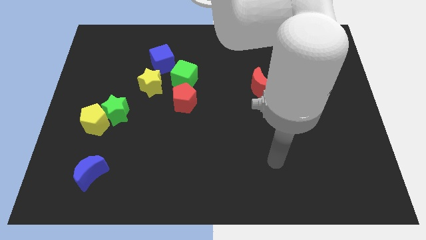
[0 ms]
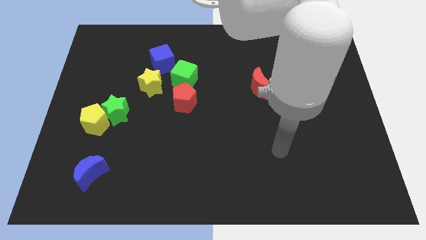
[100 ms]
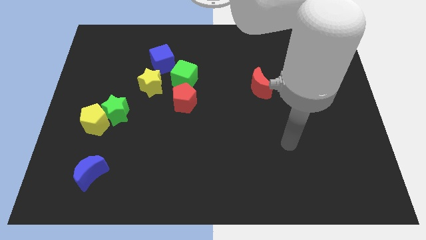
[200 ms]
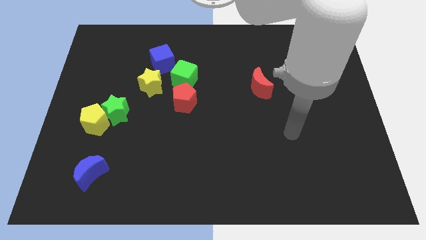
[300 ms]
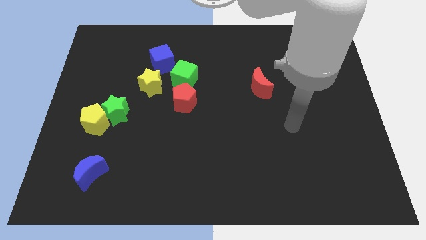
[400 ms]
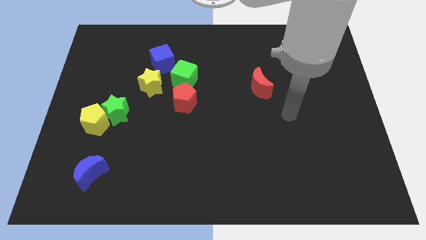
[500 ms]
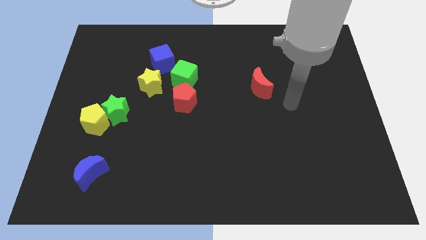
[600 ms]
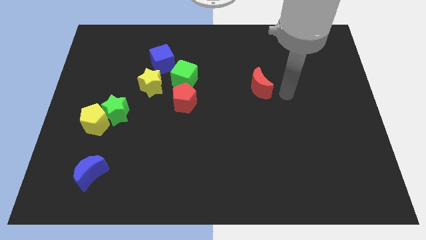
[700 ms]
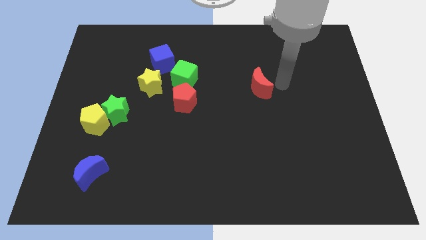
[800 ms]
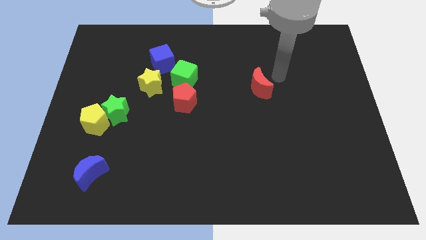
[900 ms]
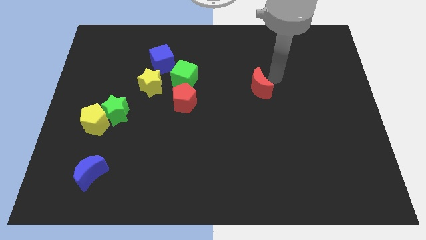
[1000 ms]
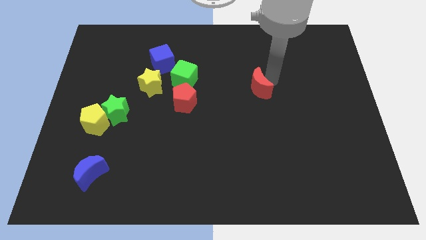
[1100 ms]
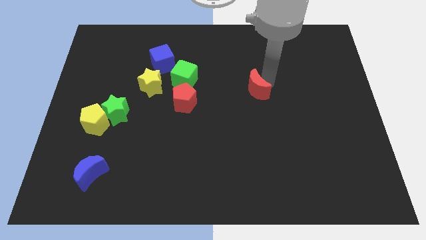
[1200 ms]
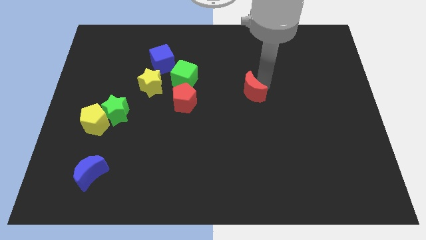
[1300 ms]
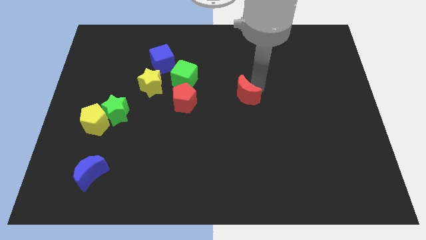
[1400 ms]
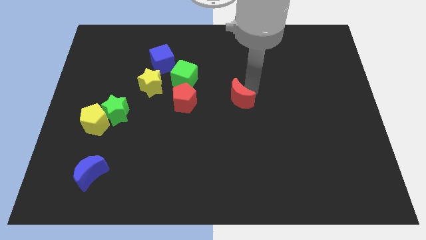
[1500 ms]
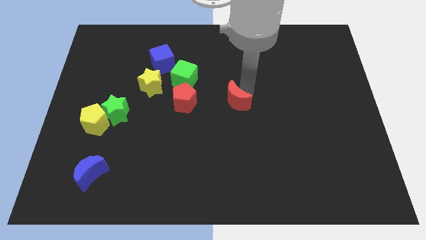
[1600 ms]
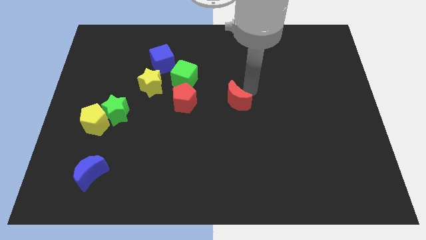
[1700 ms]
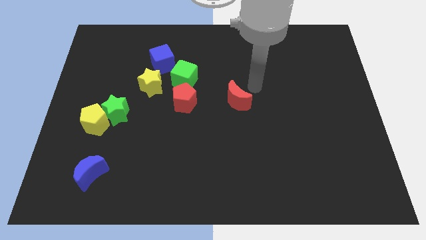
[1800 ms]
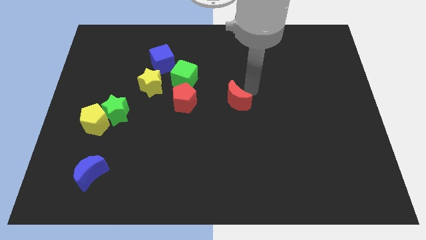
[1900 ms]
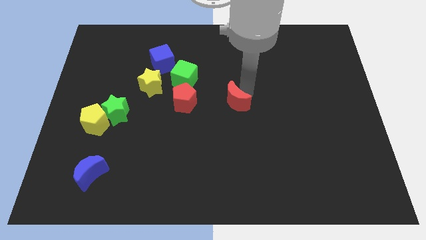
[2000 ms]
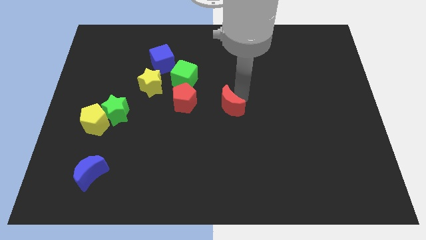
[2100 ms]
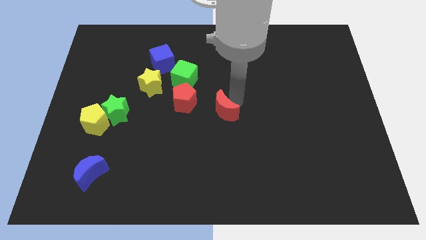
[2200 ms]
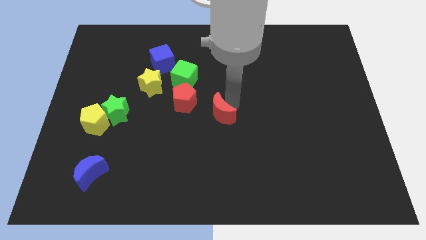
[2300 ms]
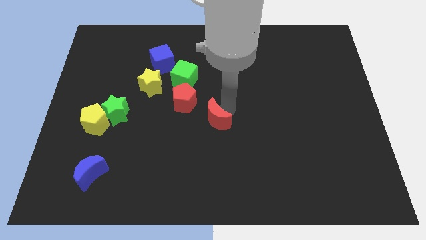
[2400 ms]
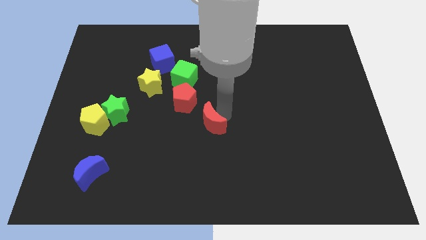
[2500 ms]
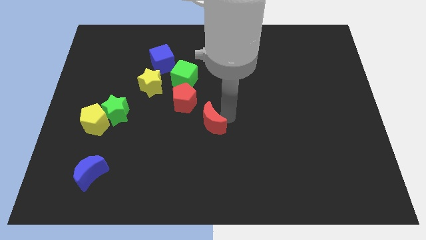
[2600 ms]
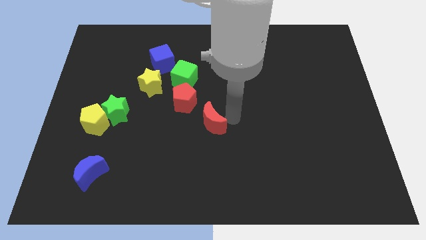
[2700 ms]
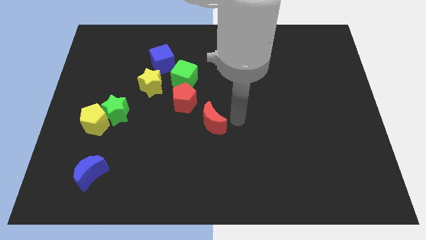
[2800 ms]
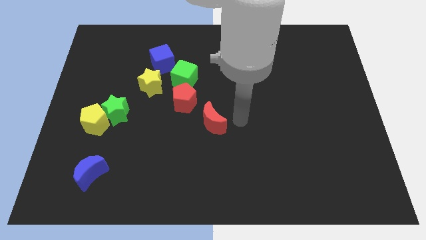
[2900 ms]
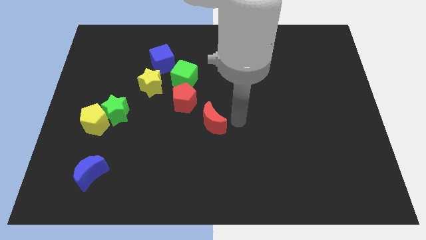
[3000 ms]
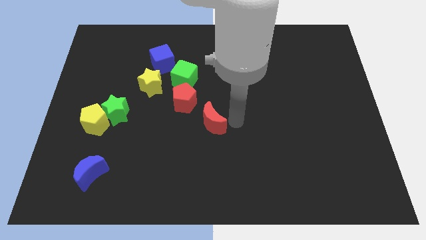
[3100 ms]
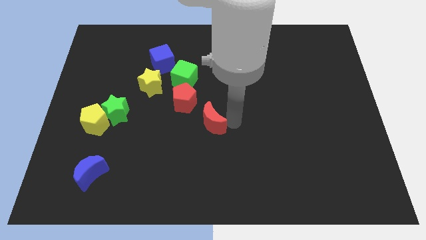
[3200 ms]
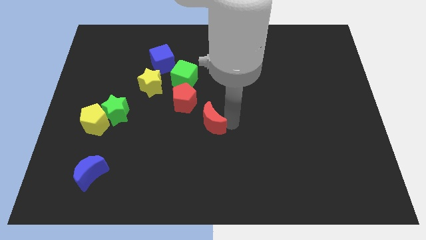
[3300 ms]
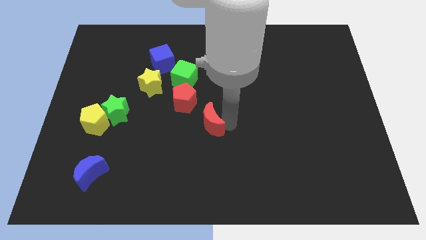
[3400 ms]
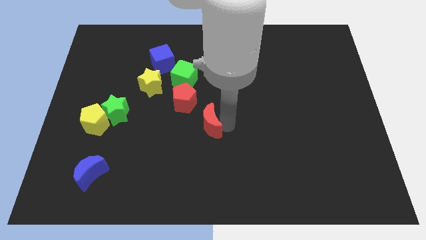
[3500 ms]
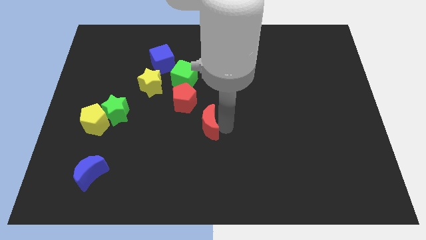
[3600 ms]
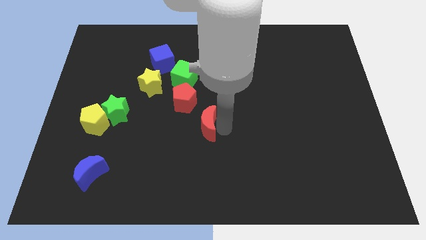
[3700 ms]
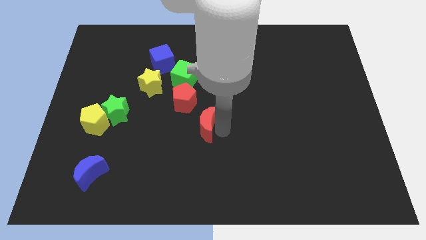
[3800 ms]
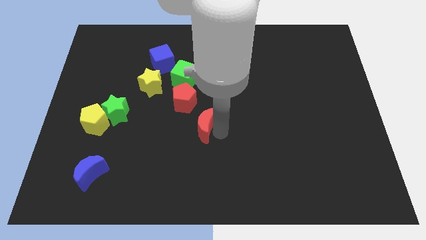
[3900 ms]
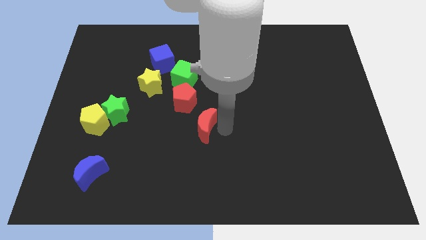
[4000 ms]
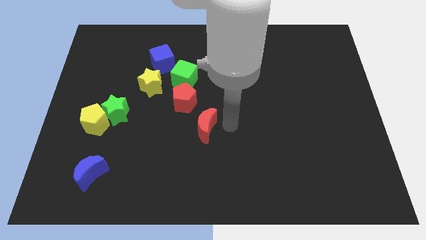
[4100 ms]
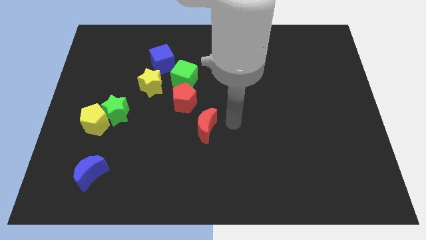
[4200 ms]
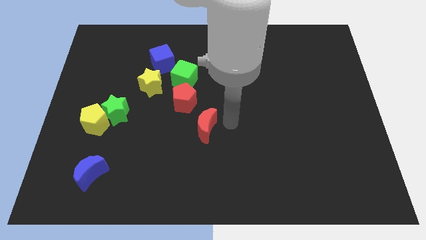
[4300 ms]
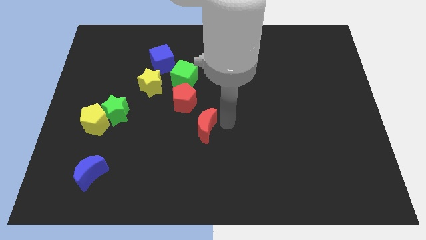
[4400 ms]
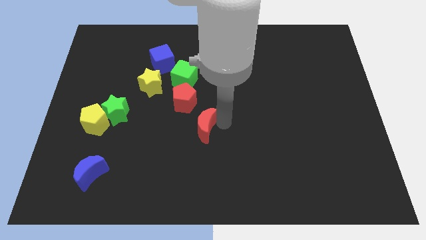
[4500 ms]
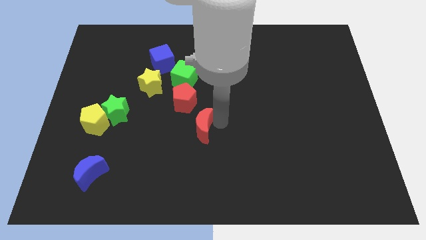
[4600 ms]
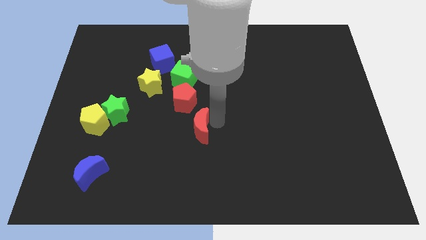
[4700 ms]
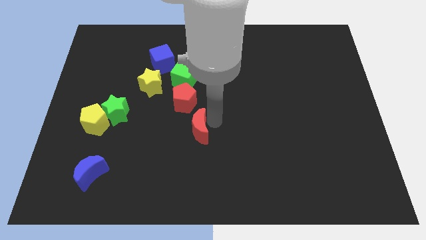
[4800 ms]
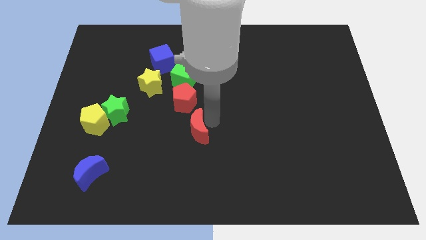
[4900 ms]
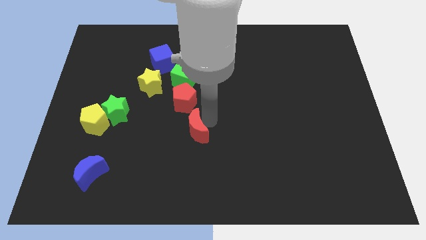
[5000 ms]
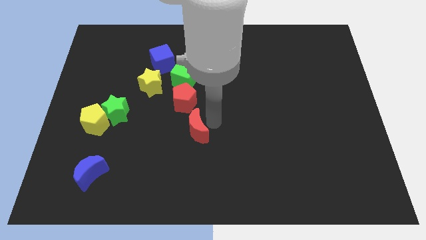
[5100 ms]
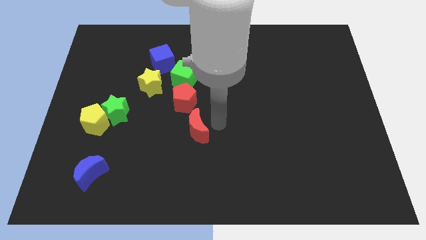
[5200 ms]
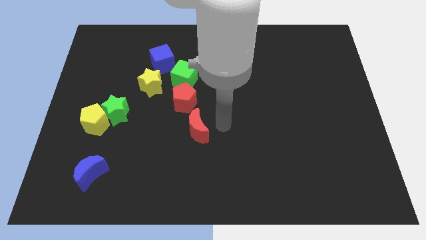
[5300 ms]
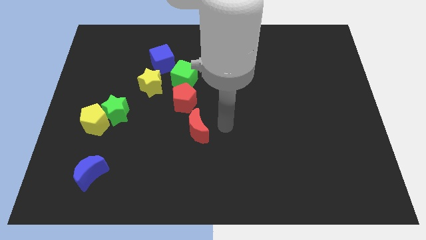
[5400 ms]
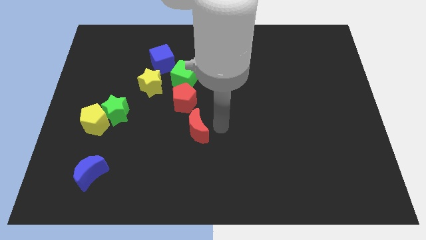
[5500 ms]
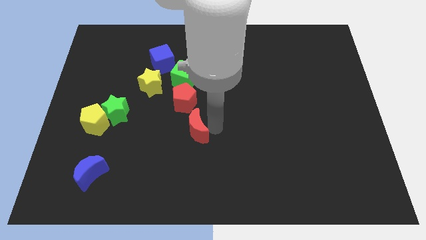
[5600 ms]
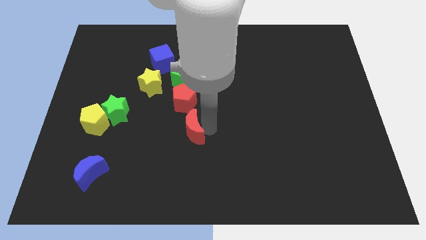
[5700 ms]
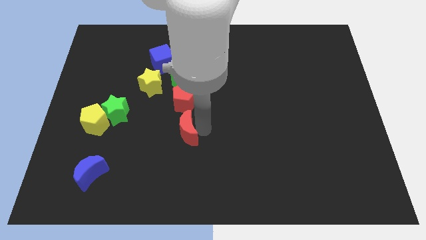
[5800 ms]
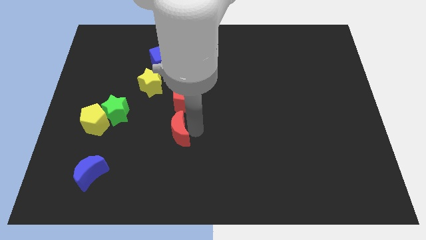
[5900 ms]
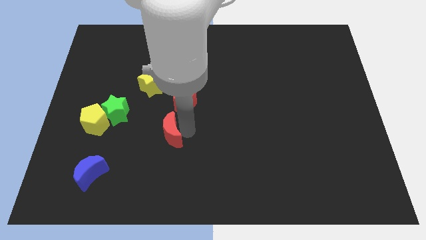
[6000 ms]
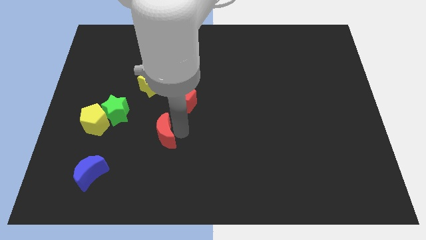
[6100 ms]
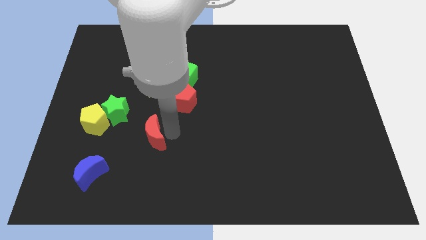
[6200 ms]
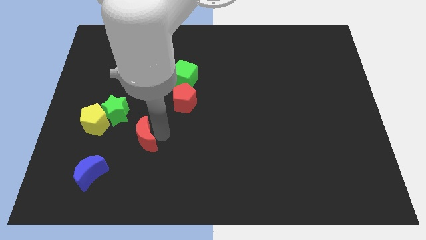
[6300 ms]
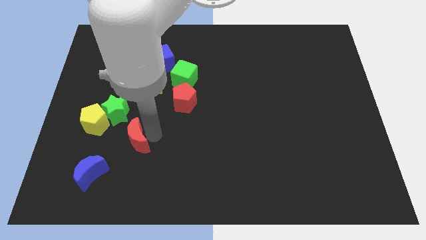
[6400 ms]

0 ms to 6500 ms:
slide the red moon diagonally up and to the right of the blue moon

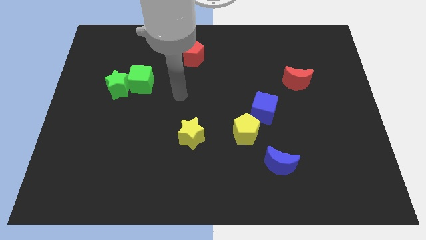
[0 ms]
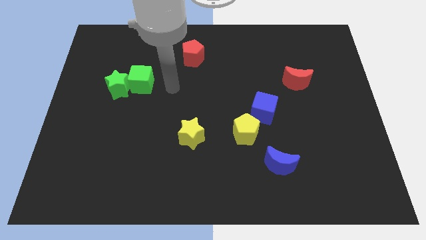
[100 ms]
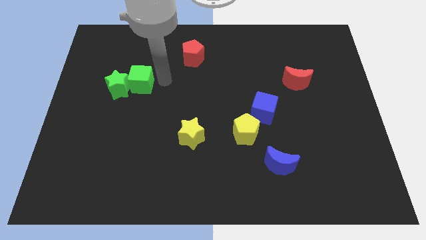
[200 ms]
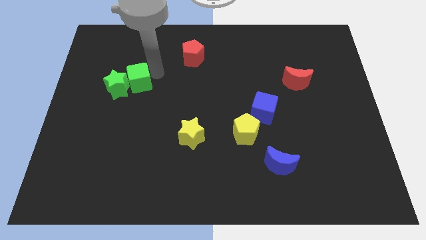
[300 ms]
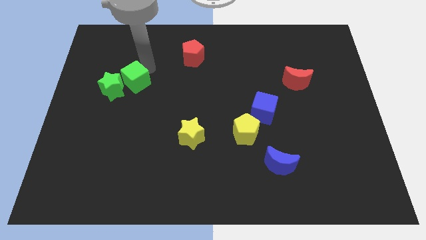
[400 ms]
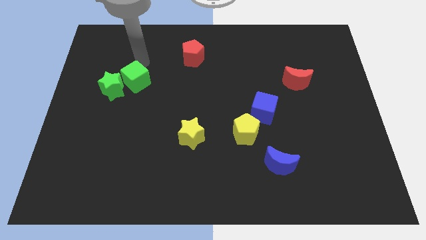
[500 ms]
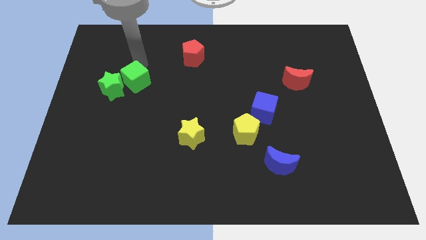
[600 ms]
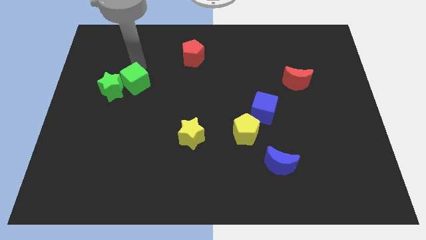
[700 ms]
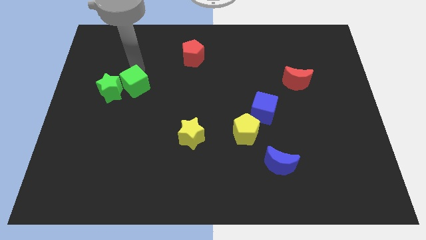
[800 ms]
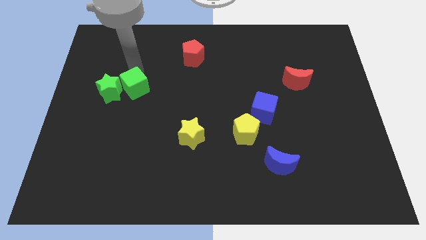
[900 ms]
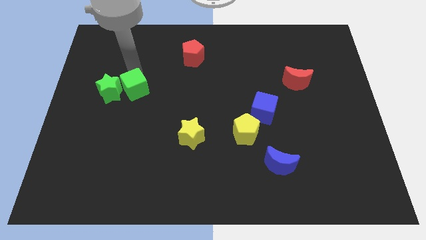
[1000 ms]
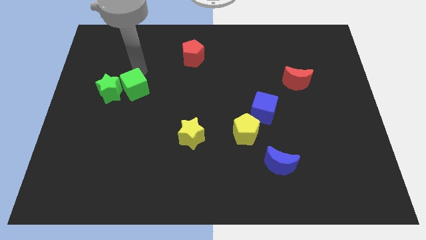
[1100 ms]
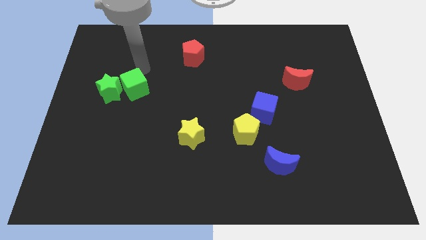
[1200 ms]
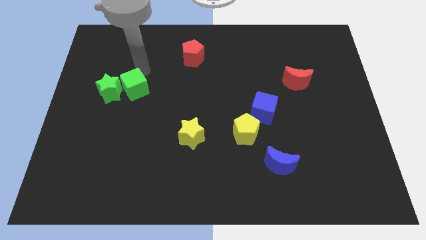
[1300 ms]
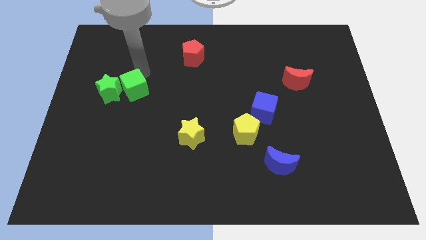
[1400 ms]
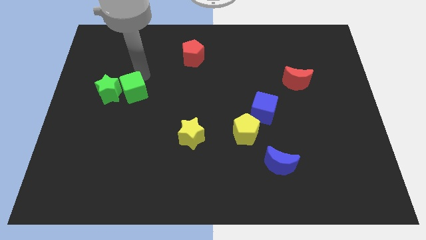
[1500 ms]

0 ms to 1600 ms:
slide the green cube diagonally down and to the right of the green star
